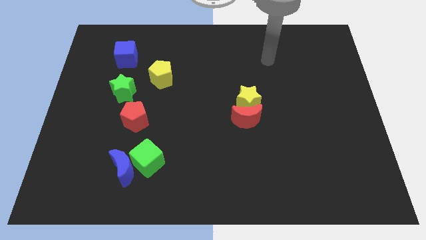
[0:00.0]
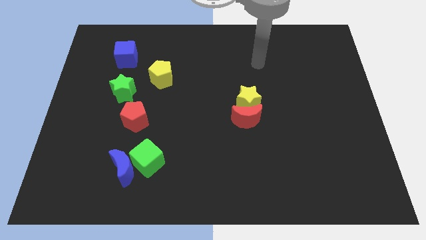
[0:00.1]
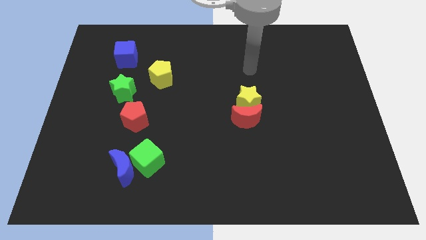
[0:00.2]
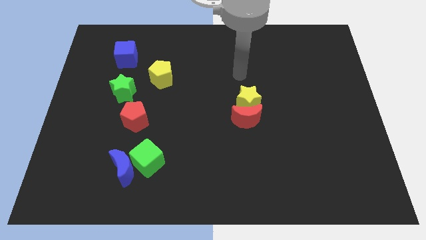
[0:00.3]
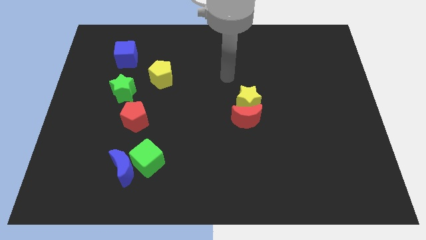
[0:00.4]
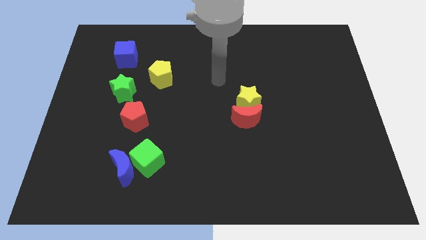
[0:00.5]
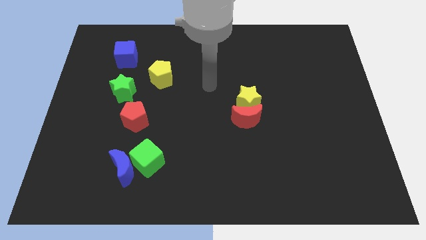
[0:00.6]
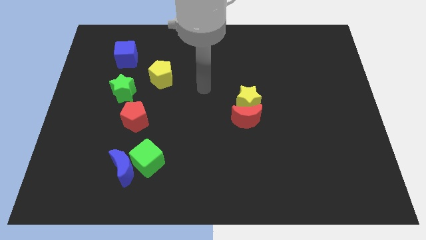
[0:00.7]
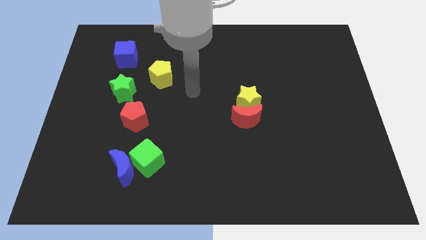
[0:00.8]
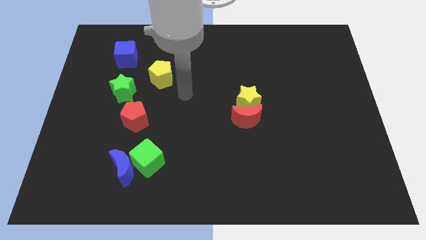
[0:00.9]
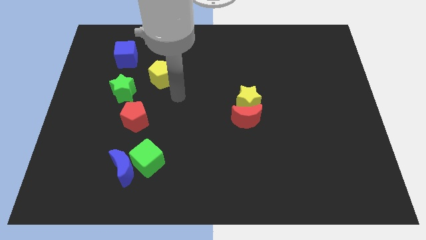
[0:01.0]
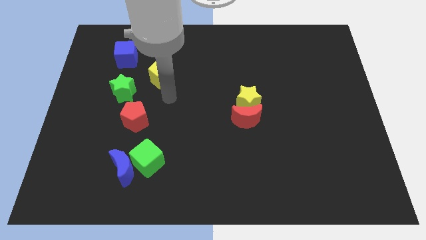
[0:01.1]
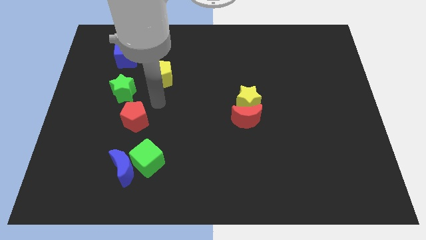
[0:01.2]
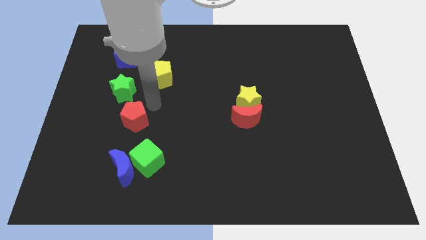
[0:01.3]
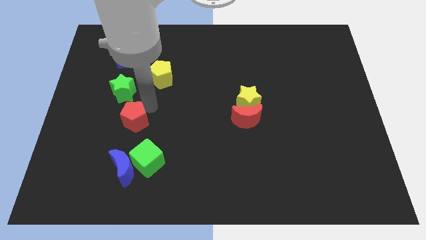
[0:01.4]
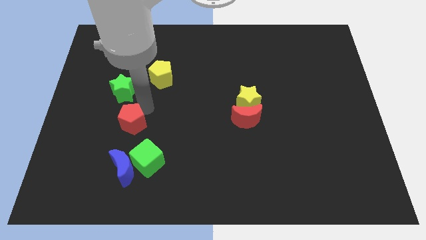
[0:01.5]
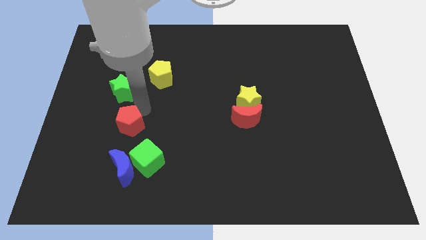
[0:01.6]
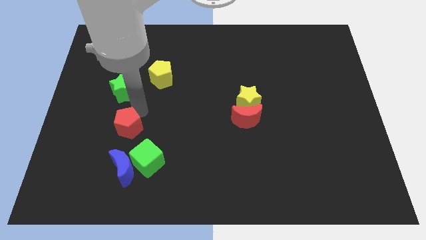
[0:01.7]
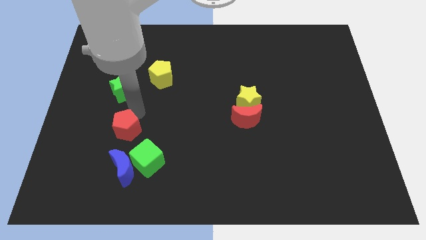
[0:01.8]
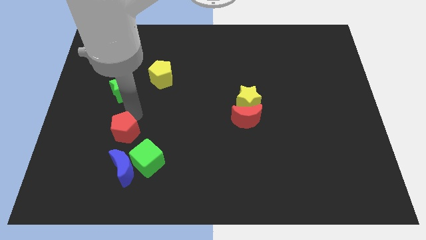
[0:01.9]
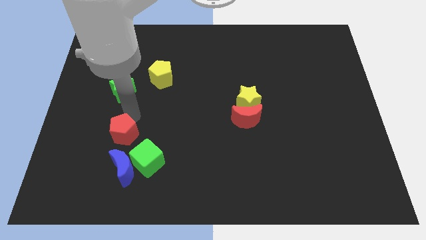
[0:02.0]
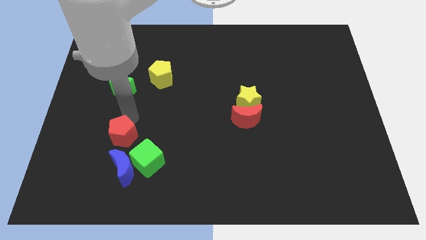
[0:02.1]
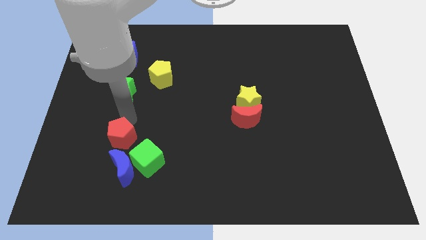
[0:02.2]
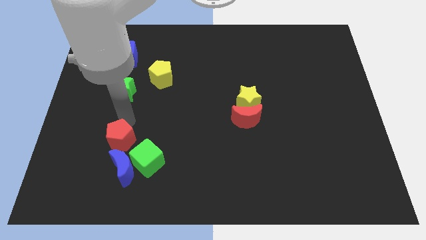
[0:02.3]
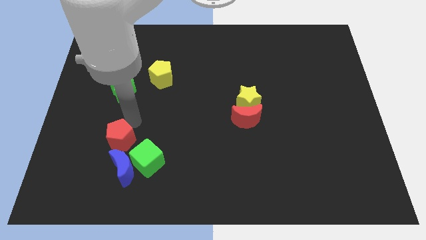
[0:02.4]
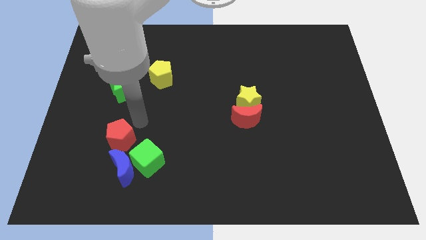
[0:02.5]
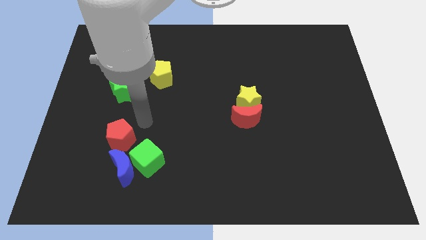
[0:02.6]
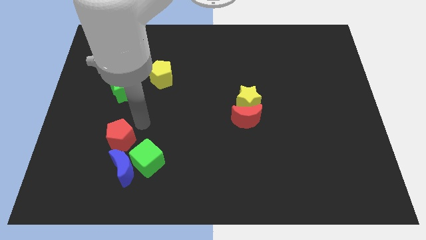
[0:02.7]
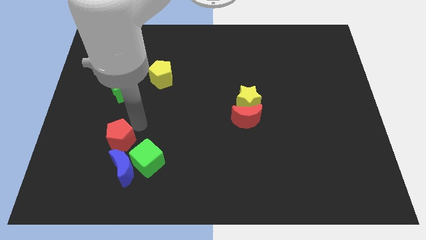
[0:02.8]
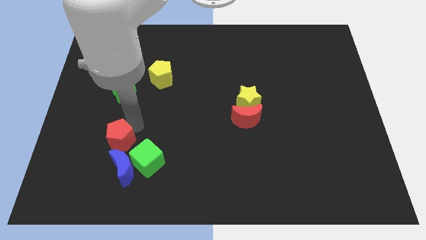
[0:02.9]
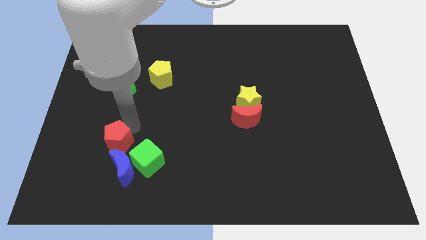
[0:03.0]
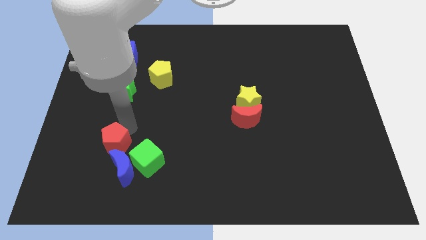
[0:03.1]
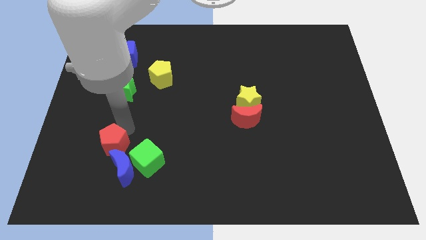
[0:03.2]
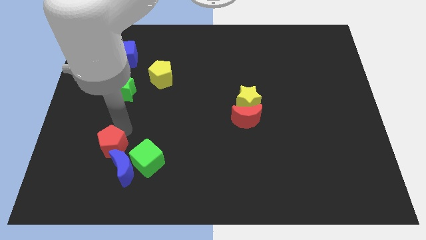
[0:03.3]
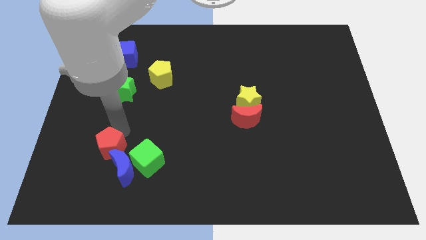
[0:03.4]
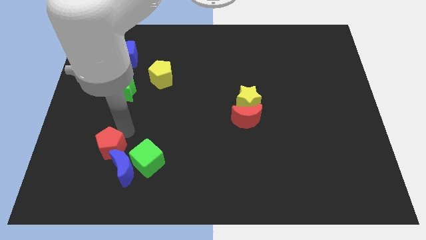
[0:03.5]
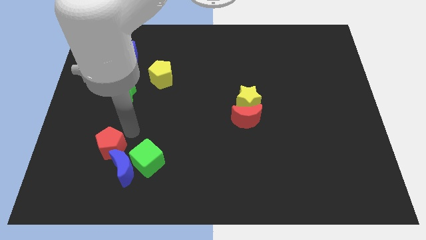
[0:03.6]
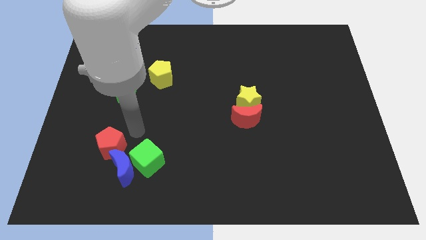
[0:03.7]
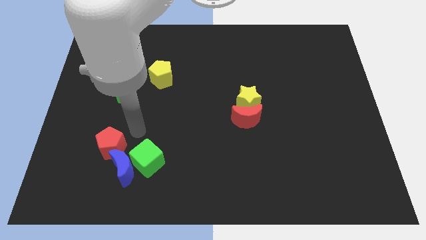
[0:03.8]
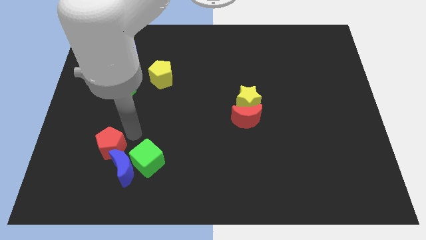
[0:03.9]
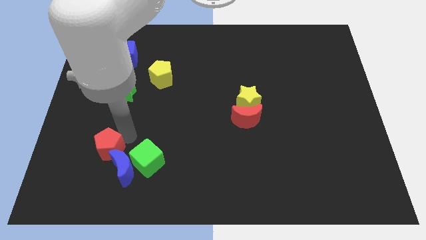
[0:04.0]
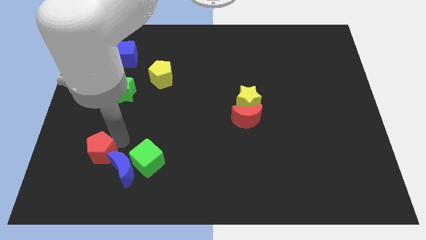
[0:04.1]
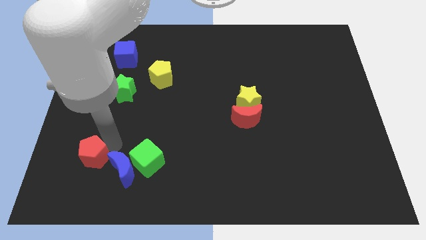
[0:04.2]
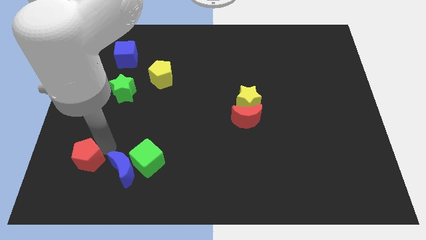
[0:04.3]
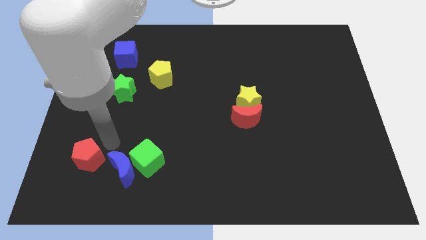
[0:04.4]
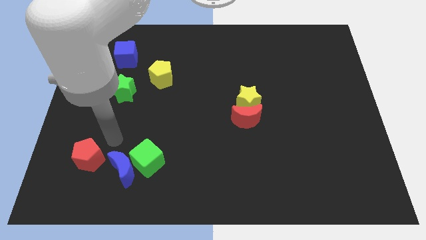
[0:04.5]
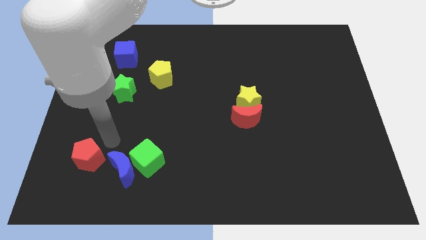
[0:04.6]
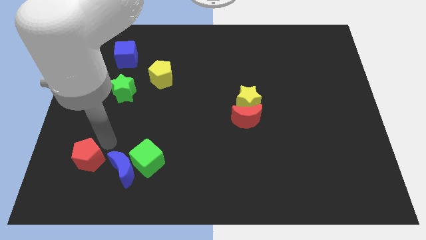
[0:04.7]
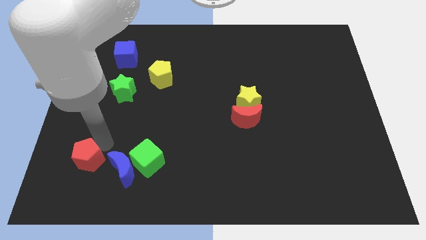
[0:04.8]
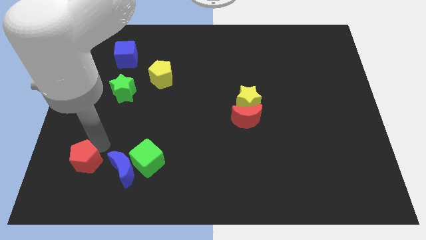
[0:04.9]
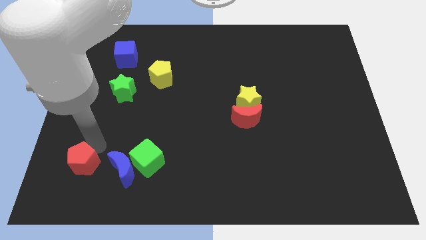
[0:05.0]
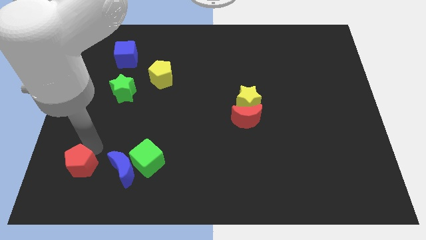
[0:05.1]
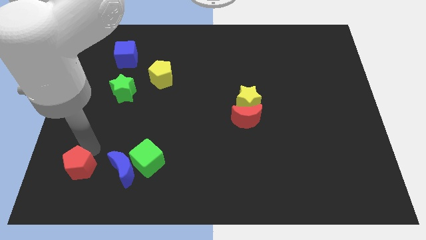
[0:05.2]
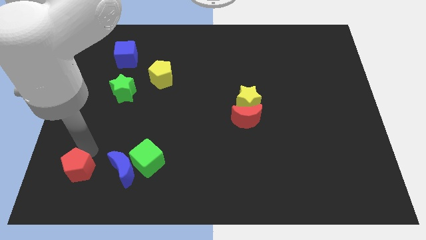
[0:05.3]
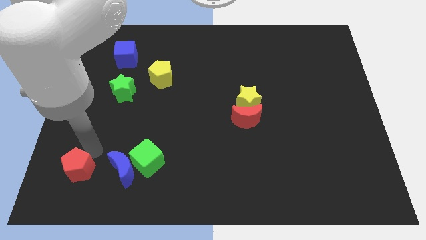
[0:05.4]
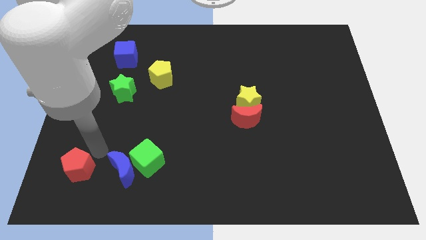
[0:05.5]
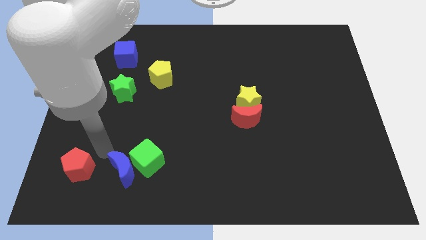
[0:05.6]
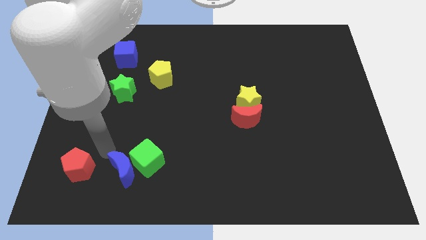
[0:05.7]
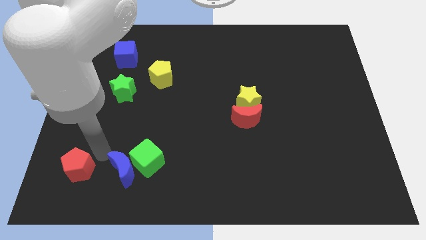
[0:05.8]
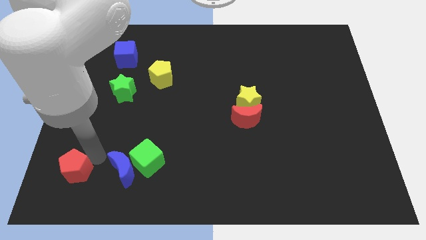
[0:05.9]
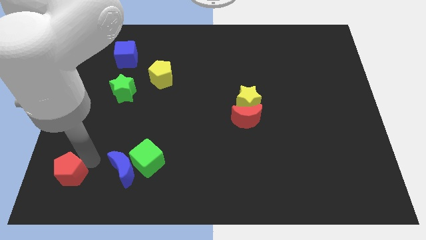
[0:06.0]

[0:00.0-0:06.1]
put the red pentagon to the bottom left of the board
